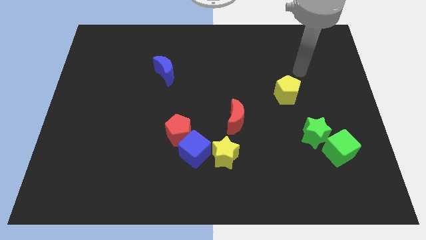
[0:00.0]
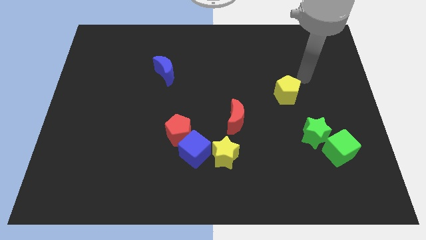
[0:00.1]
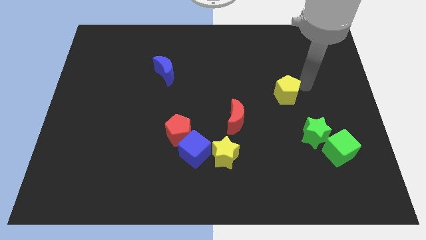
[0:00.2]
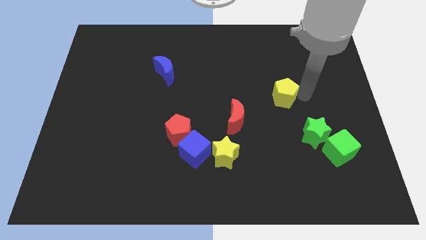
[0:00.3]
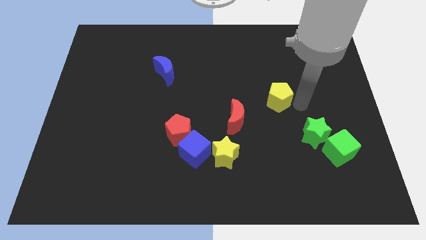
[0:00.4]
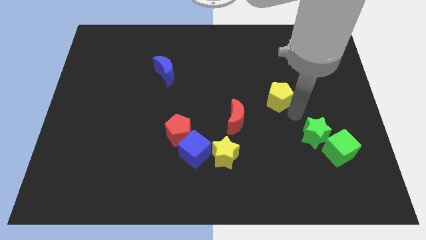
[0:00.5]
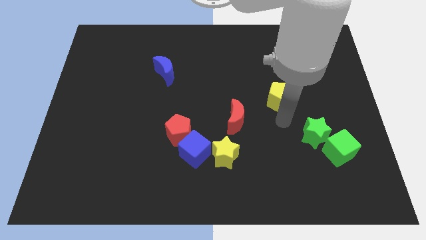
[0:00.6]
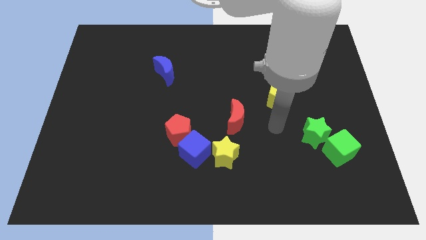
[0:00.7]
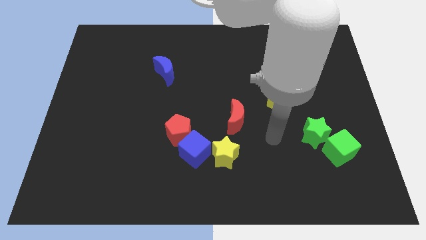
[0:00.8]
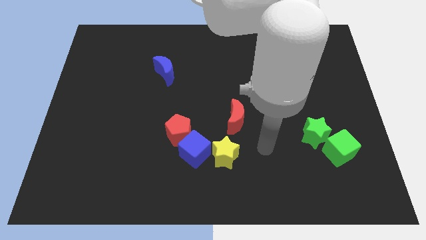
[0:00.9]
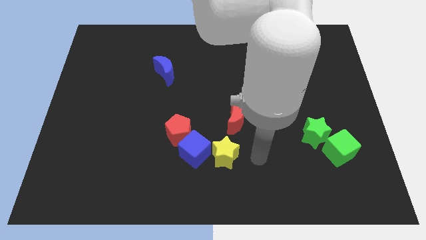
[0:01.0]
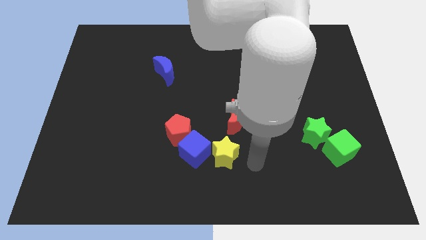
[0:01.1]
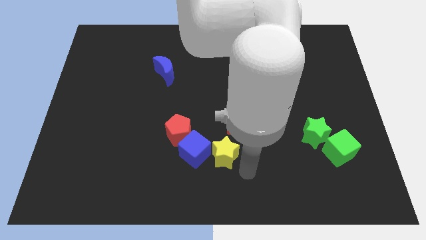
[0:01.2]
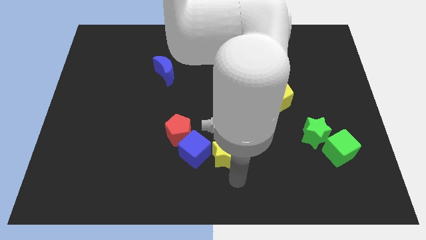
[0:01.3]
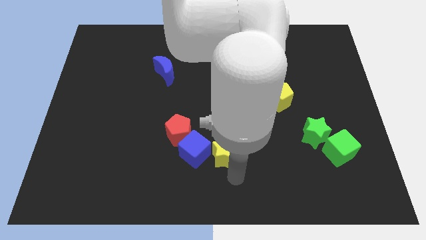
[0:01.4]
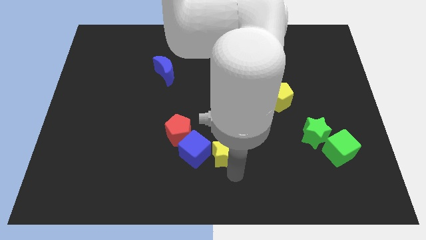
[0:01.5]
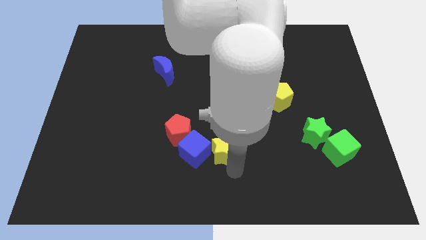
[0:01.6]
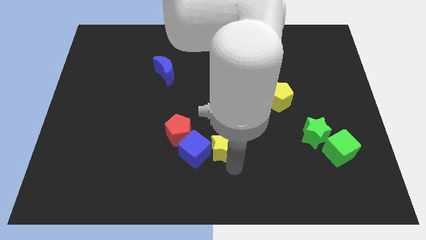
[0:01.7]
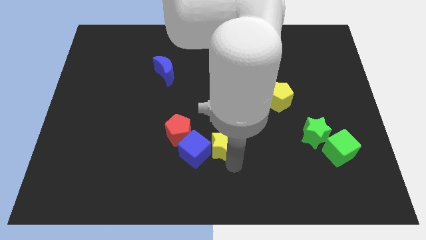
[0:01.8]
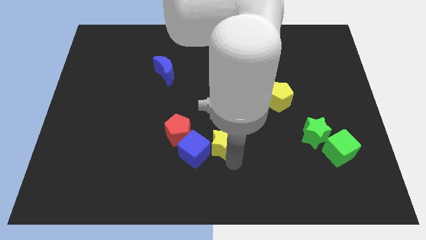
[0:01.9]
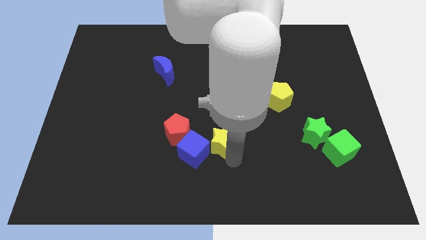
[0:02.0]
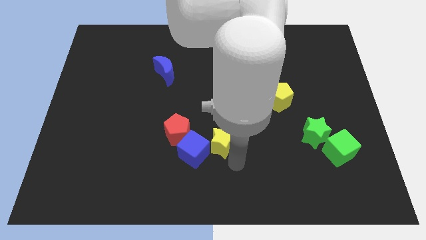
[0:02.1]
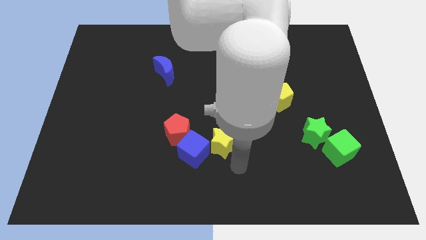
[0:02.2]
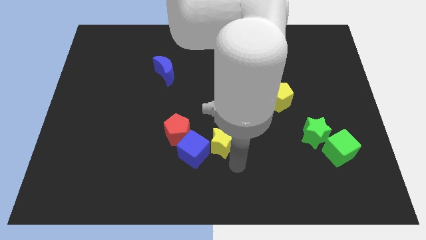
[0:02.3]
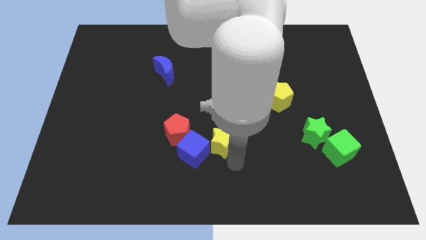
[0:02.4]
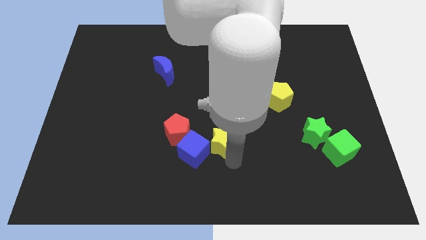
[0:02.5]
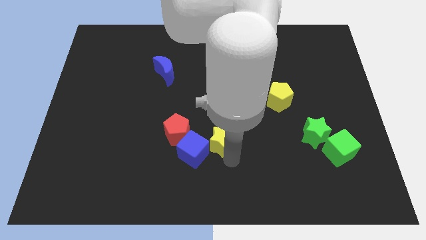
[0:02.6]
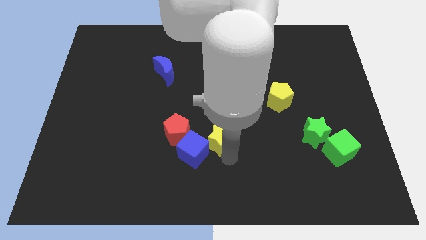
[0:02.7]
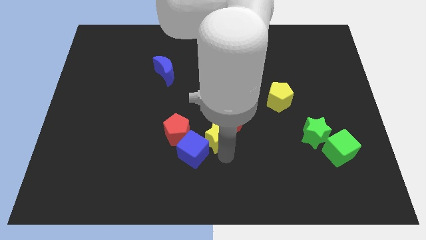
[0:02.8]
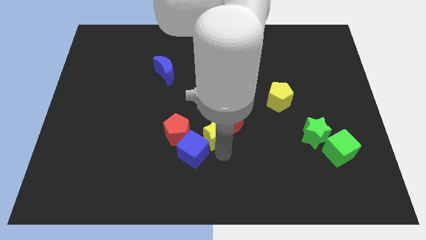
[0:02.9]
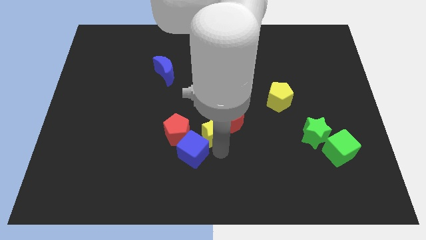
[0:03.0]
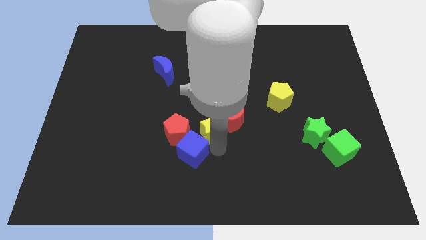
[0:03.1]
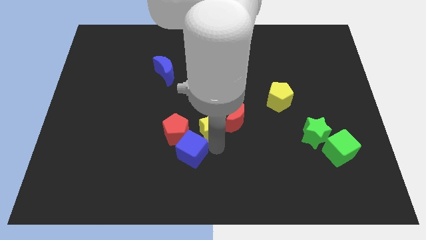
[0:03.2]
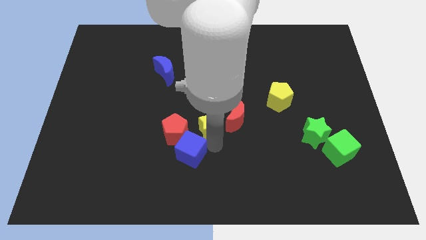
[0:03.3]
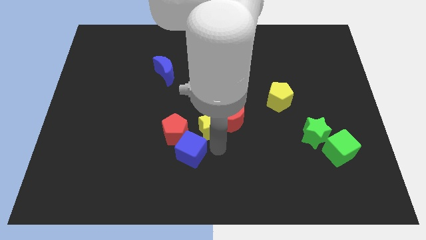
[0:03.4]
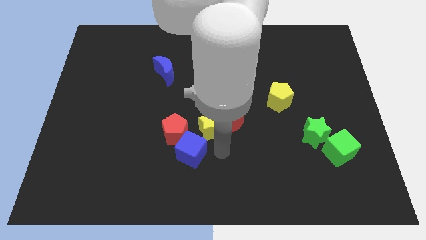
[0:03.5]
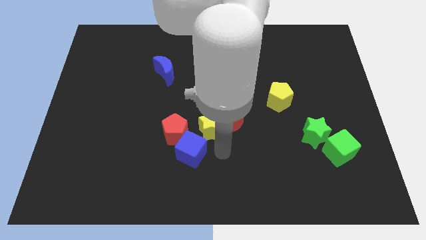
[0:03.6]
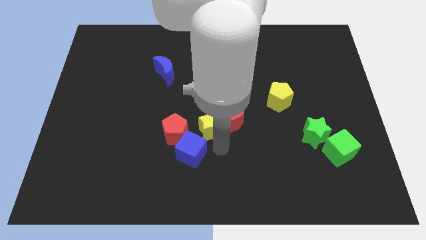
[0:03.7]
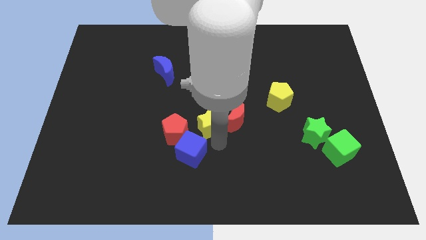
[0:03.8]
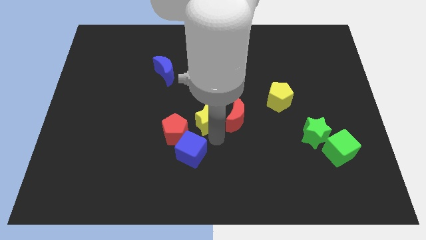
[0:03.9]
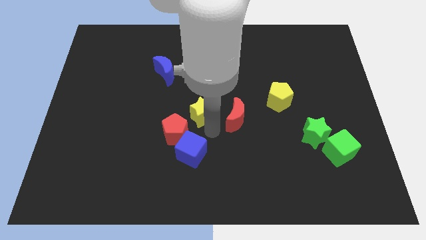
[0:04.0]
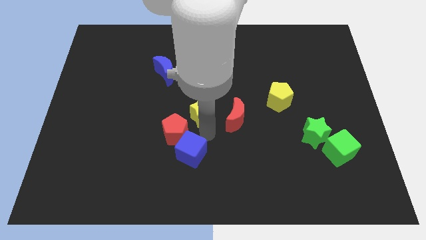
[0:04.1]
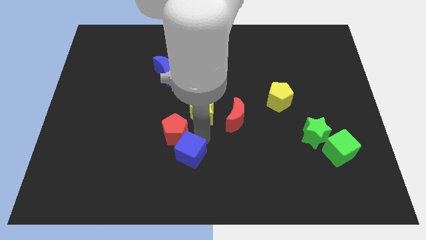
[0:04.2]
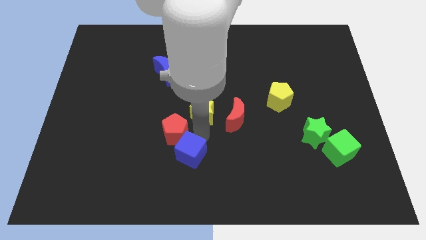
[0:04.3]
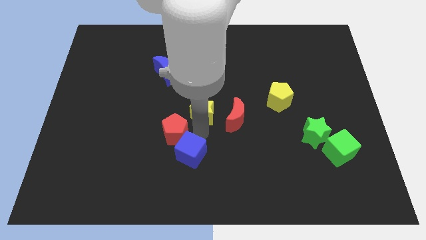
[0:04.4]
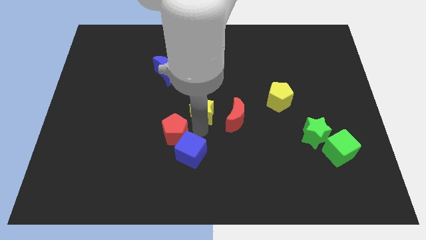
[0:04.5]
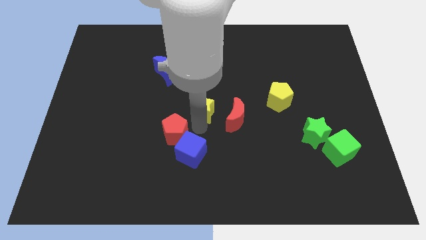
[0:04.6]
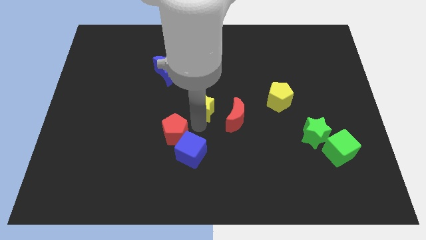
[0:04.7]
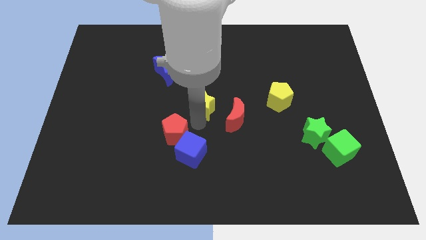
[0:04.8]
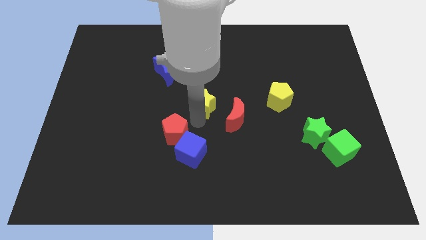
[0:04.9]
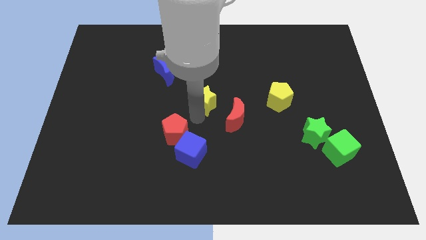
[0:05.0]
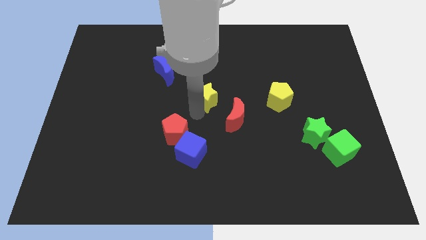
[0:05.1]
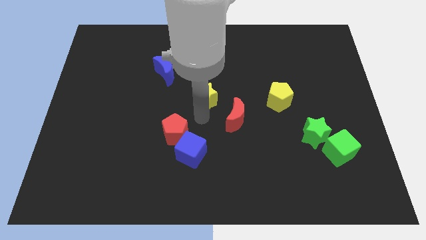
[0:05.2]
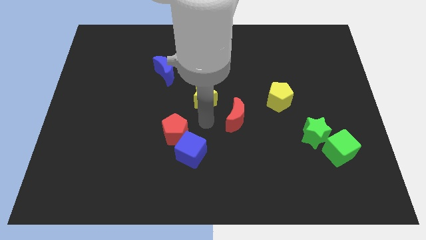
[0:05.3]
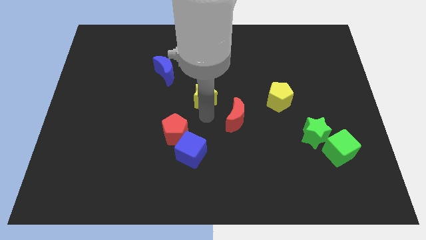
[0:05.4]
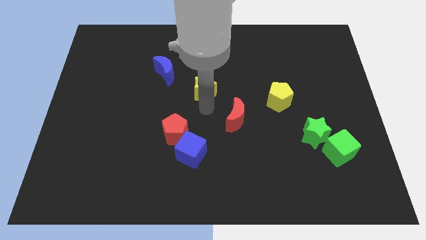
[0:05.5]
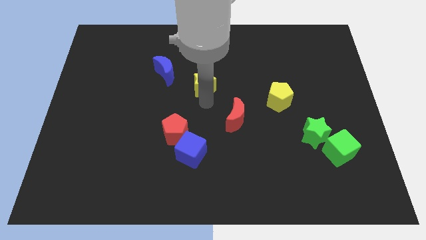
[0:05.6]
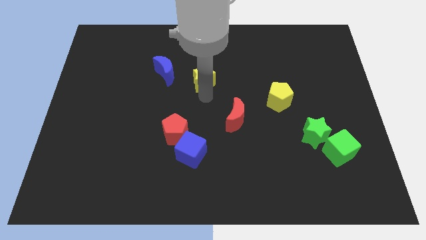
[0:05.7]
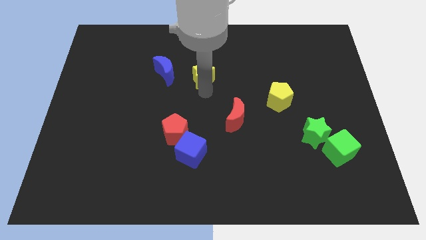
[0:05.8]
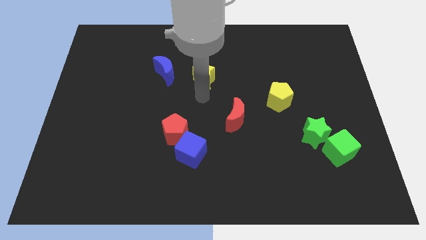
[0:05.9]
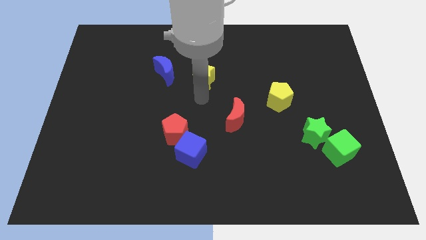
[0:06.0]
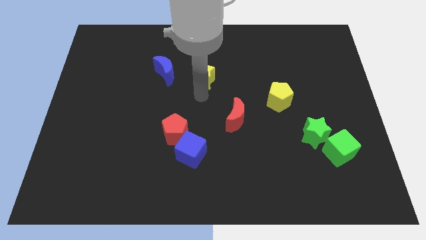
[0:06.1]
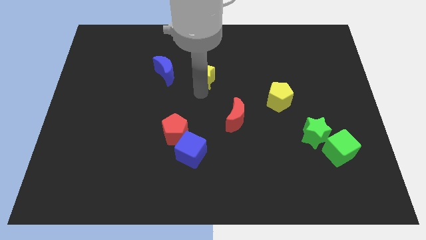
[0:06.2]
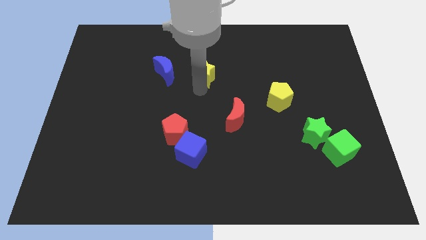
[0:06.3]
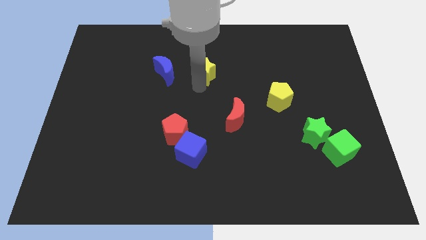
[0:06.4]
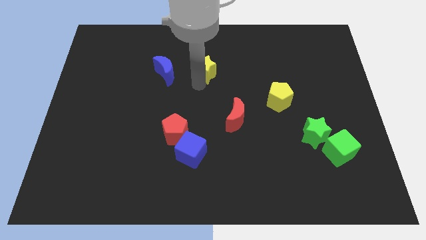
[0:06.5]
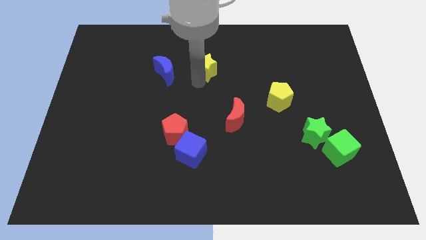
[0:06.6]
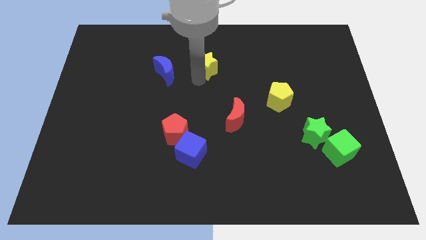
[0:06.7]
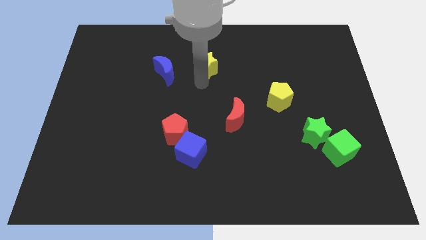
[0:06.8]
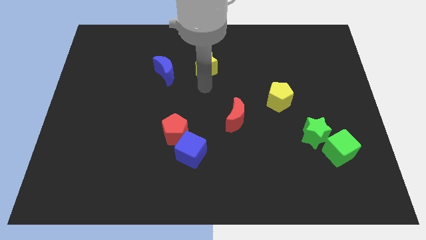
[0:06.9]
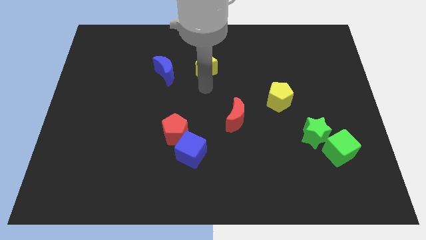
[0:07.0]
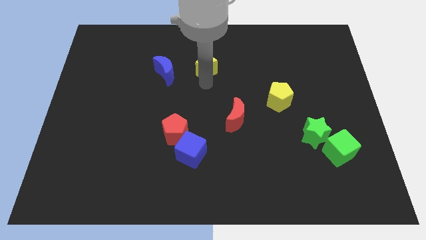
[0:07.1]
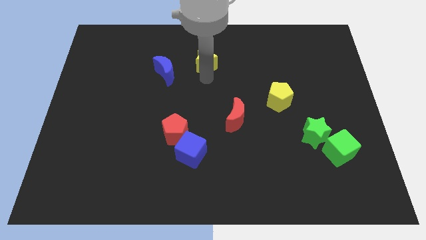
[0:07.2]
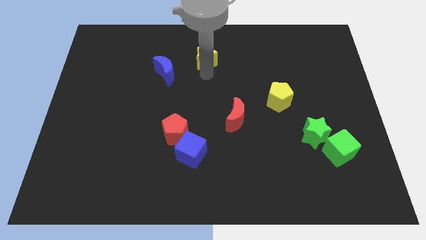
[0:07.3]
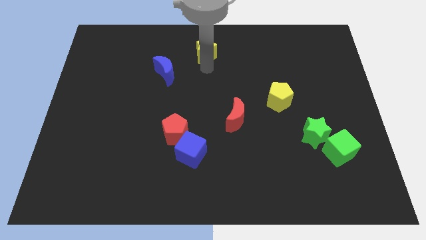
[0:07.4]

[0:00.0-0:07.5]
push the yellow star to the top side
